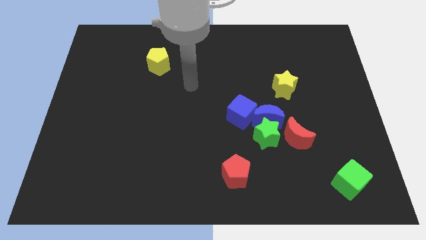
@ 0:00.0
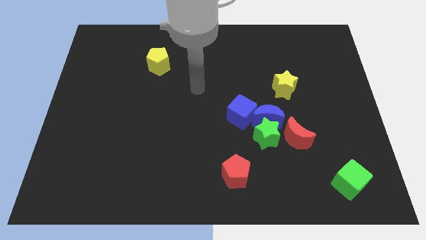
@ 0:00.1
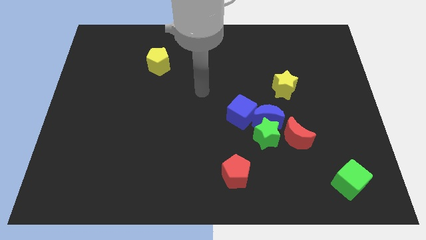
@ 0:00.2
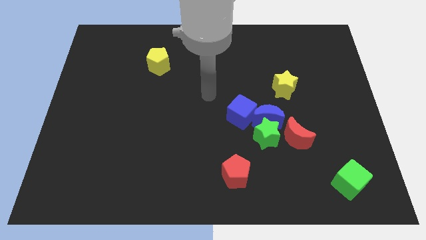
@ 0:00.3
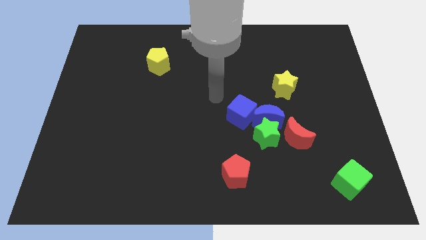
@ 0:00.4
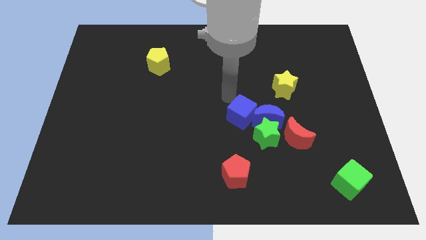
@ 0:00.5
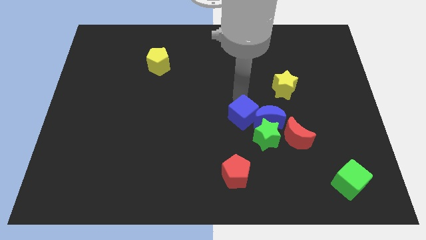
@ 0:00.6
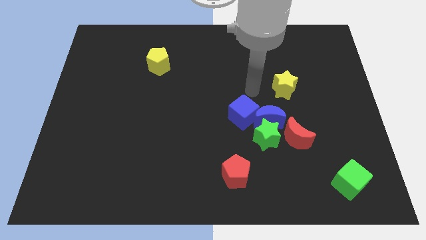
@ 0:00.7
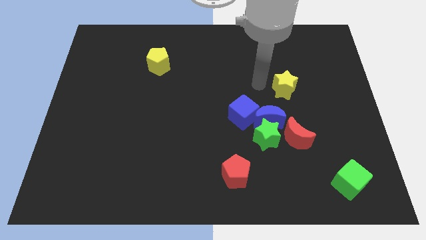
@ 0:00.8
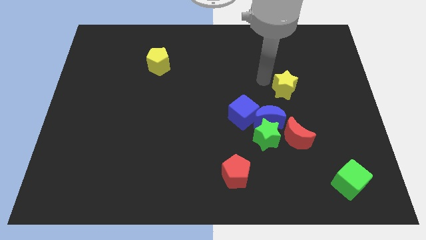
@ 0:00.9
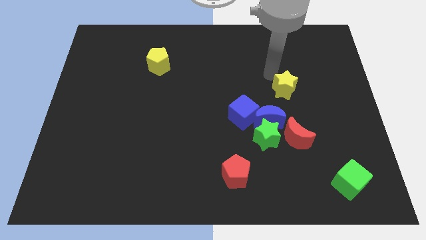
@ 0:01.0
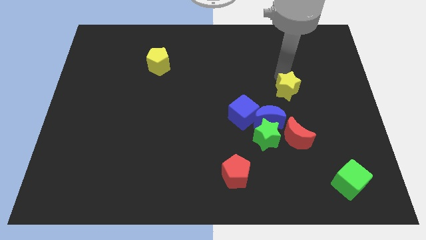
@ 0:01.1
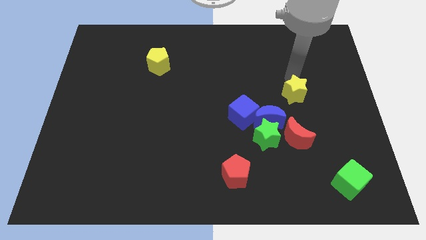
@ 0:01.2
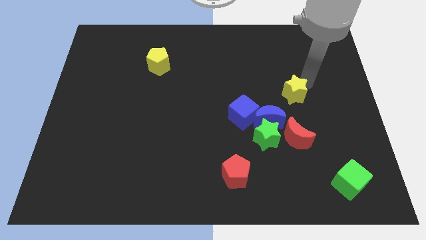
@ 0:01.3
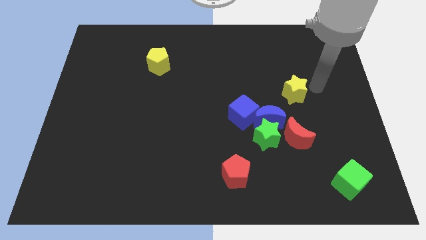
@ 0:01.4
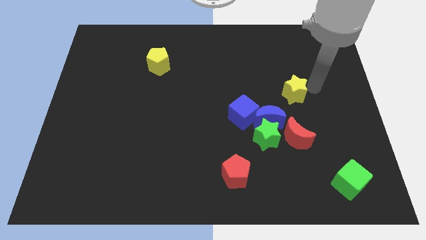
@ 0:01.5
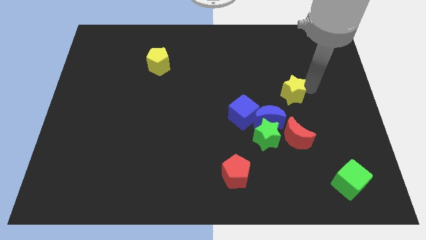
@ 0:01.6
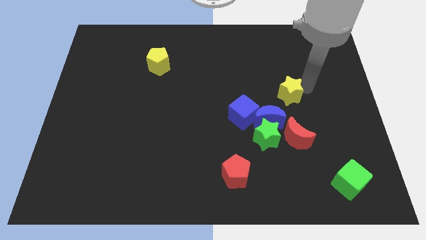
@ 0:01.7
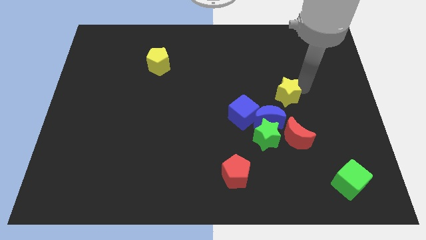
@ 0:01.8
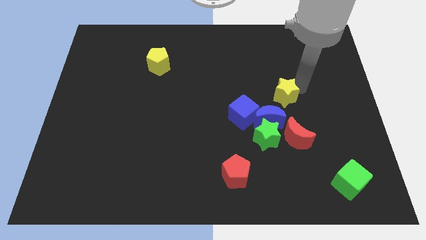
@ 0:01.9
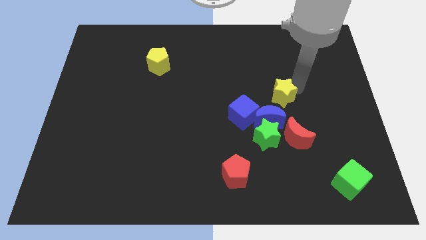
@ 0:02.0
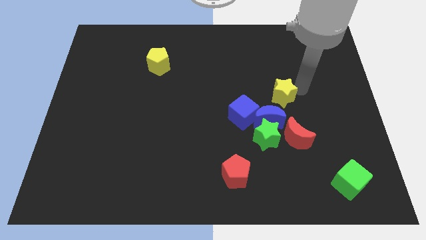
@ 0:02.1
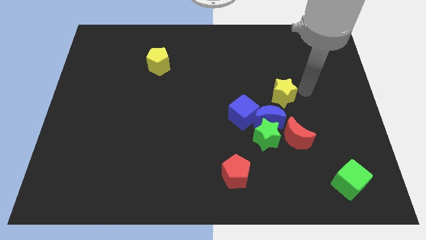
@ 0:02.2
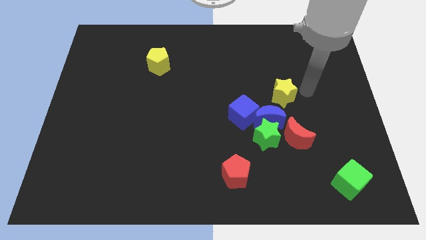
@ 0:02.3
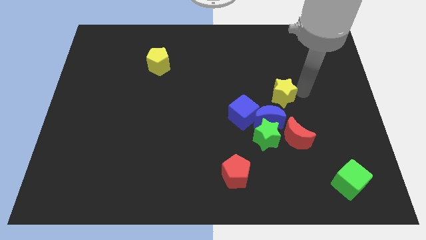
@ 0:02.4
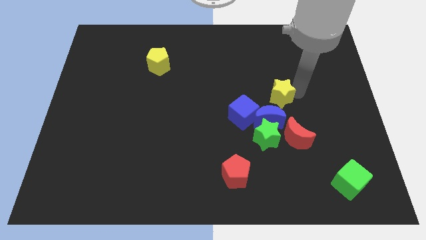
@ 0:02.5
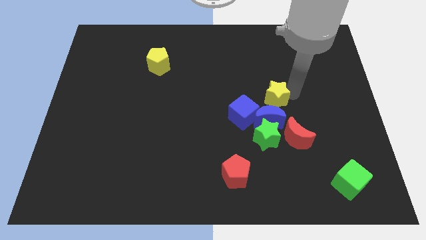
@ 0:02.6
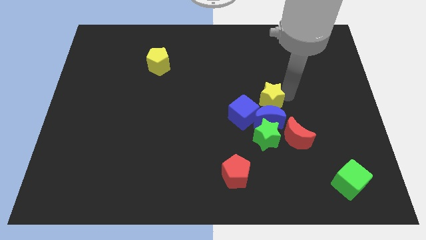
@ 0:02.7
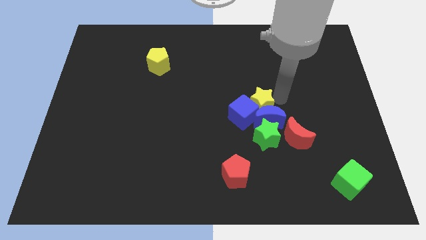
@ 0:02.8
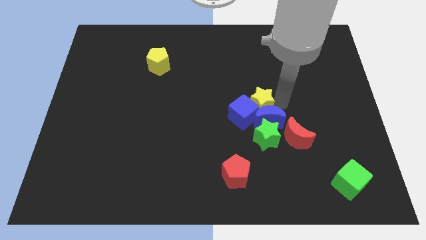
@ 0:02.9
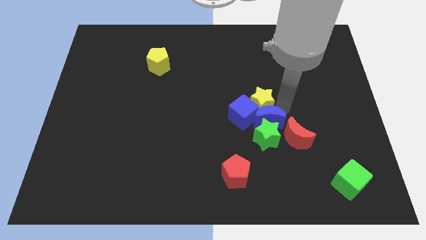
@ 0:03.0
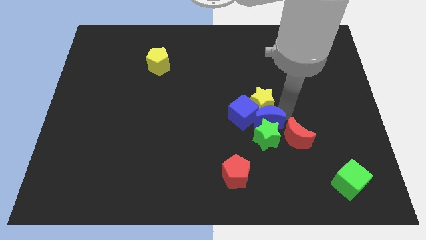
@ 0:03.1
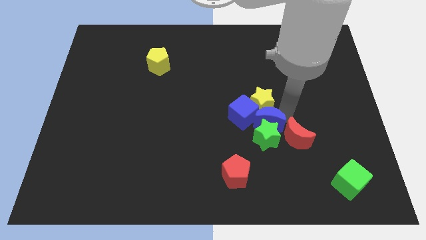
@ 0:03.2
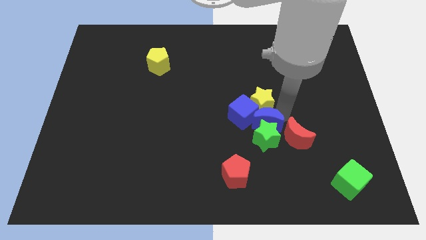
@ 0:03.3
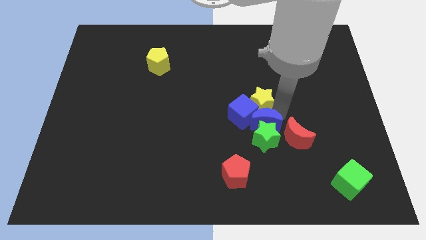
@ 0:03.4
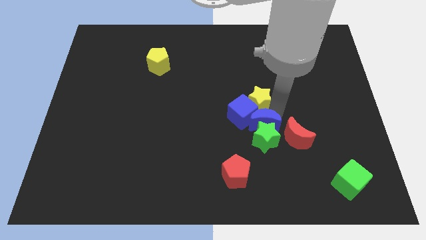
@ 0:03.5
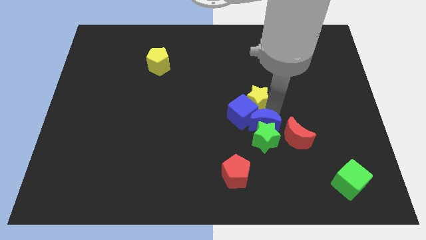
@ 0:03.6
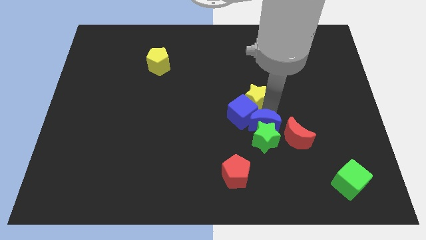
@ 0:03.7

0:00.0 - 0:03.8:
slightly move the yellow star left

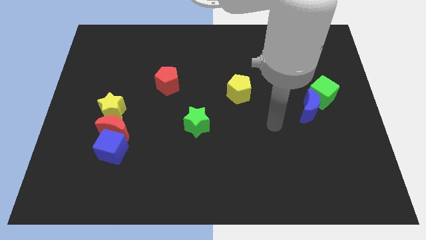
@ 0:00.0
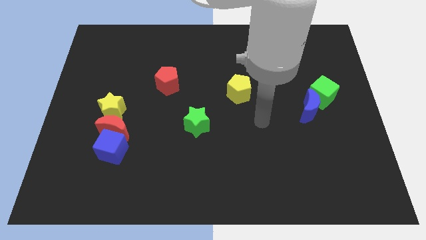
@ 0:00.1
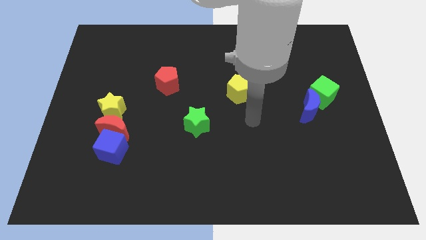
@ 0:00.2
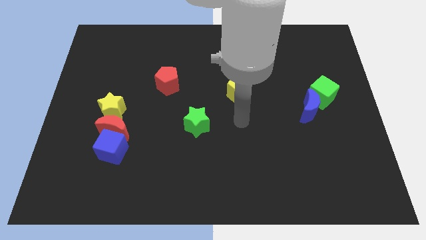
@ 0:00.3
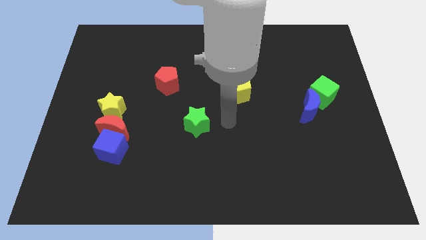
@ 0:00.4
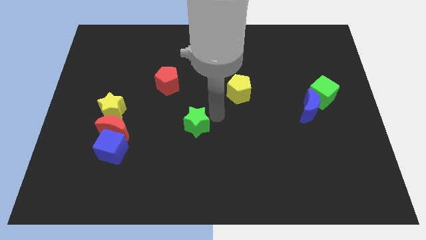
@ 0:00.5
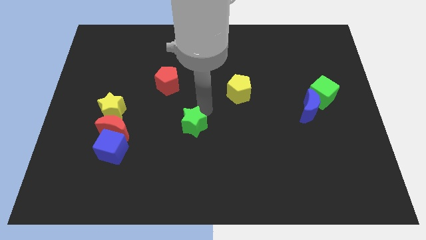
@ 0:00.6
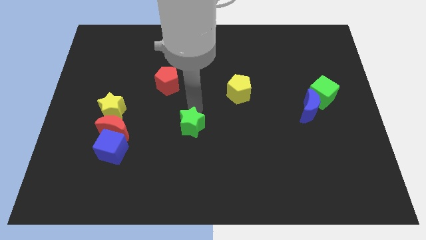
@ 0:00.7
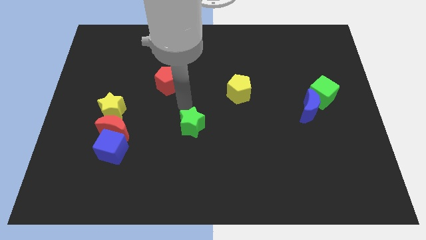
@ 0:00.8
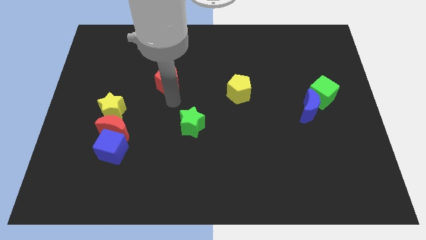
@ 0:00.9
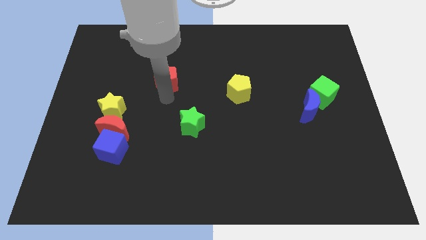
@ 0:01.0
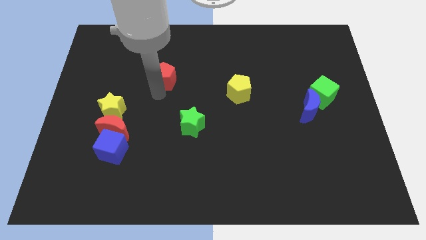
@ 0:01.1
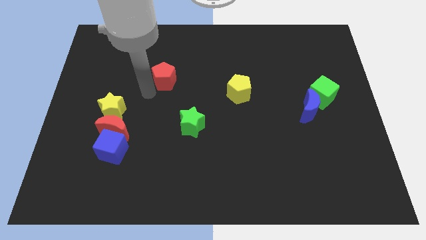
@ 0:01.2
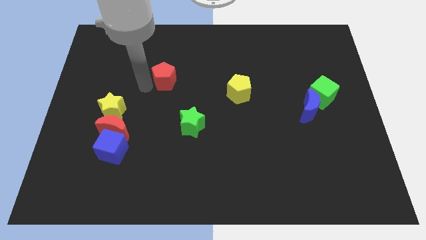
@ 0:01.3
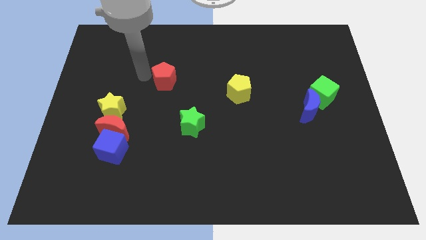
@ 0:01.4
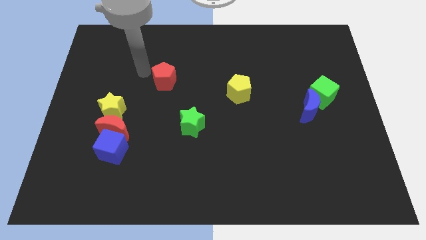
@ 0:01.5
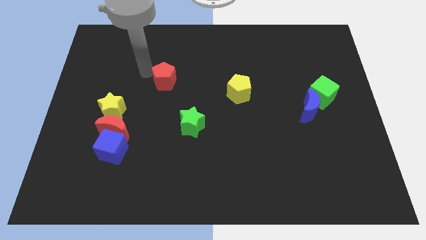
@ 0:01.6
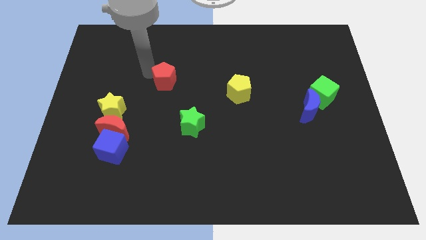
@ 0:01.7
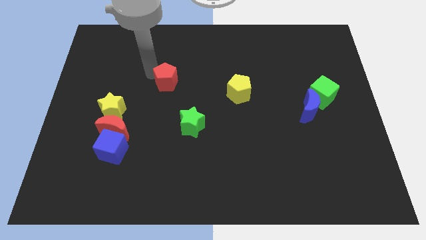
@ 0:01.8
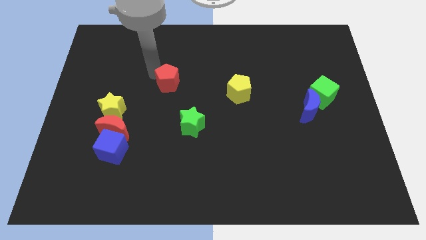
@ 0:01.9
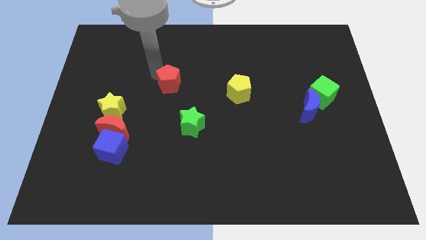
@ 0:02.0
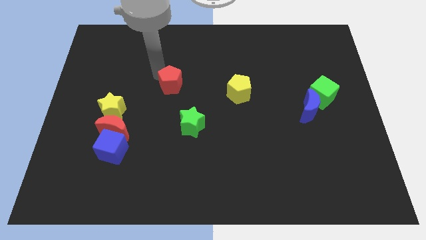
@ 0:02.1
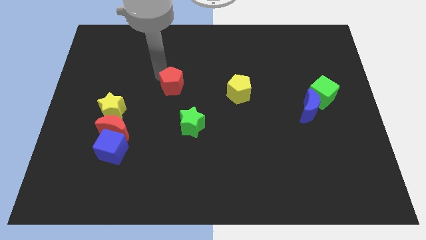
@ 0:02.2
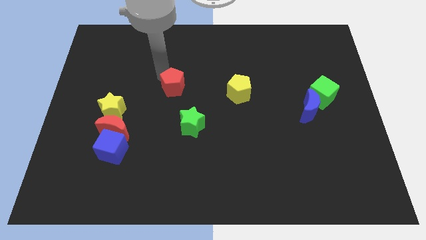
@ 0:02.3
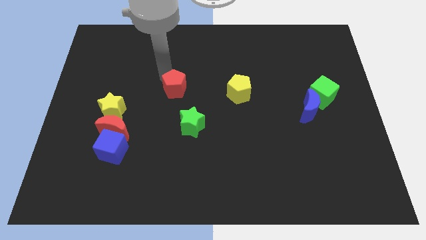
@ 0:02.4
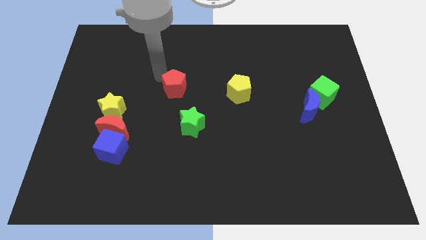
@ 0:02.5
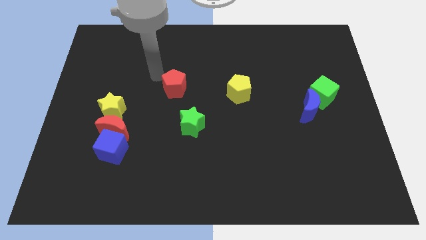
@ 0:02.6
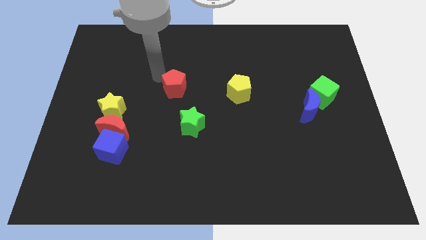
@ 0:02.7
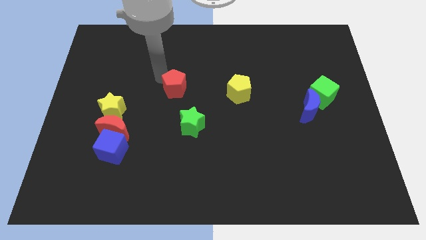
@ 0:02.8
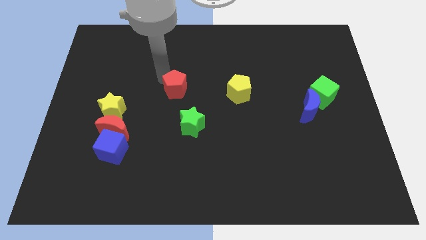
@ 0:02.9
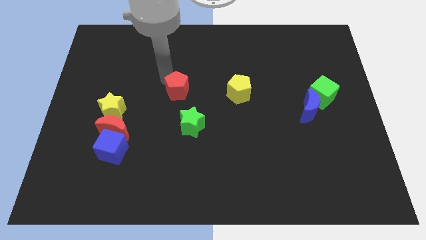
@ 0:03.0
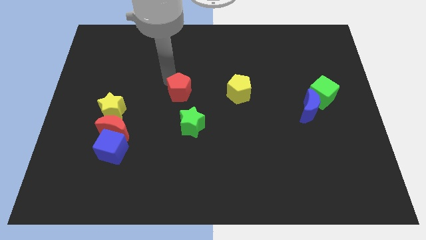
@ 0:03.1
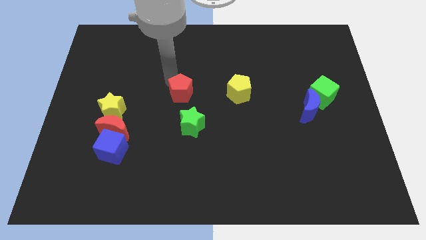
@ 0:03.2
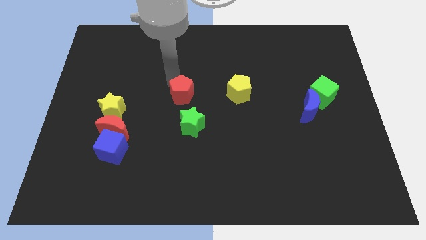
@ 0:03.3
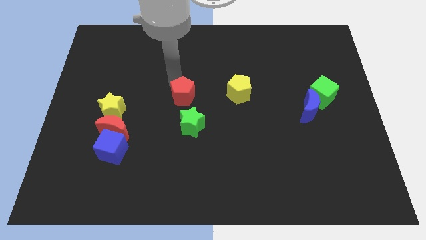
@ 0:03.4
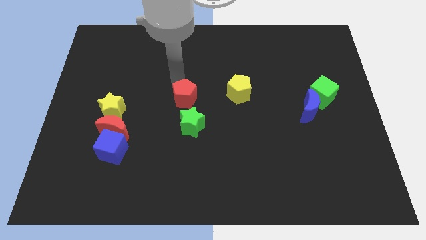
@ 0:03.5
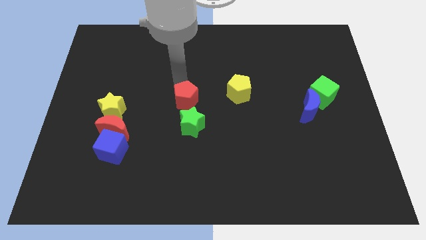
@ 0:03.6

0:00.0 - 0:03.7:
push the red pentagon slightly down and then right
